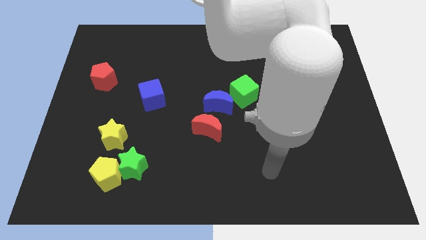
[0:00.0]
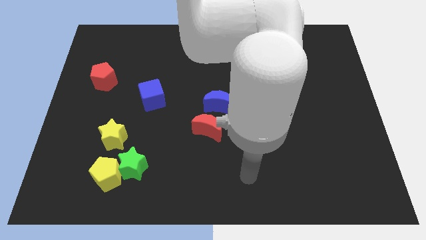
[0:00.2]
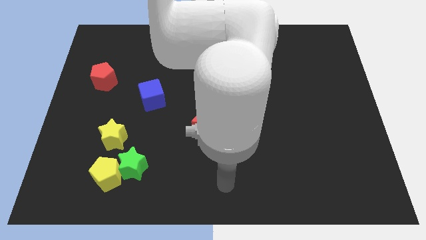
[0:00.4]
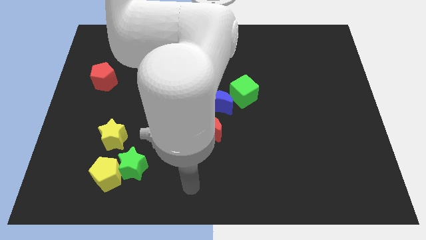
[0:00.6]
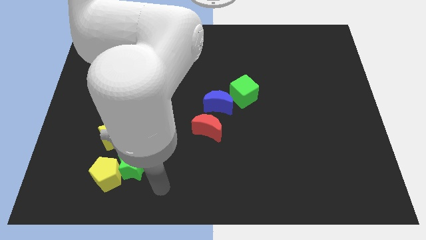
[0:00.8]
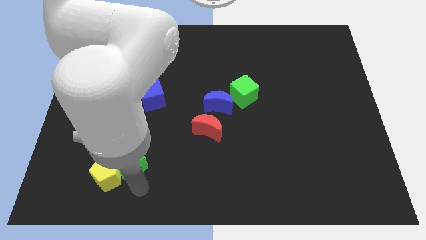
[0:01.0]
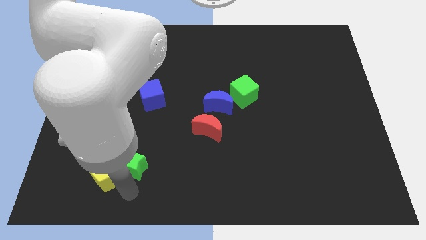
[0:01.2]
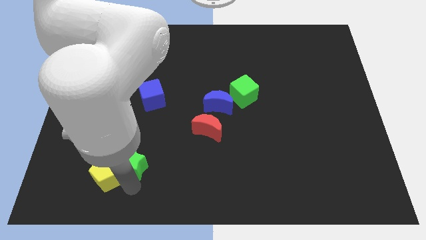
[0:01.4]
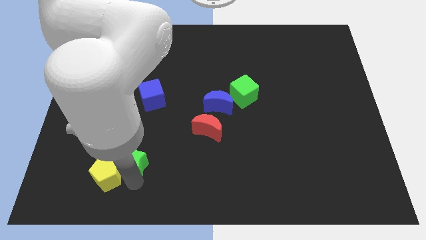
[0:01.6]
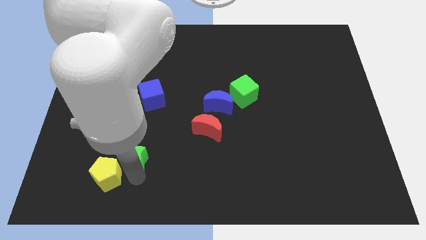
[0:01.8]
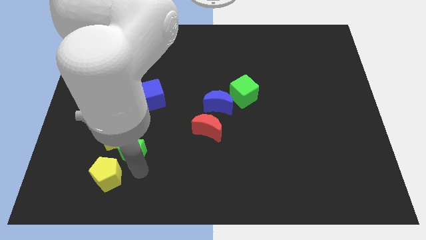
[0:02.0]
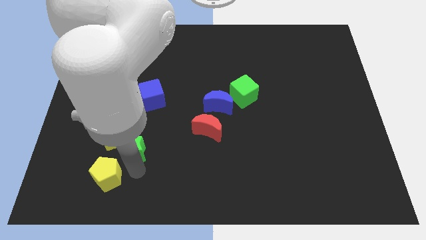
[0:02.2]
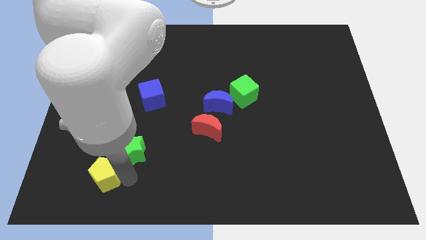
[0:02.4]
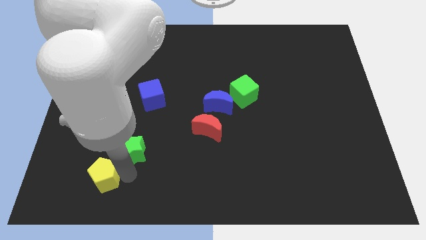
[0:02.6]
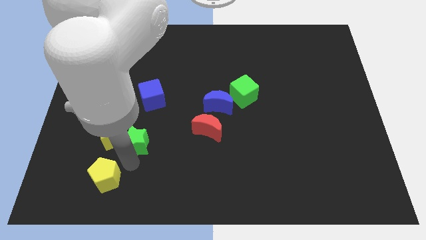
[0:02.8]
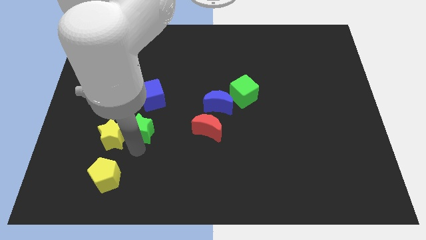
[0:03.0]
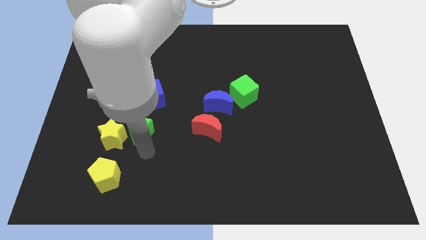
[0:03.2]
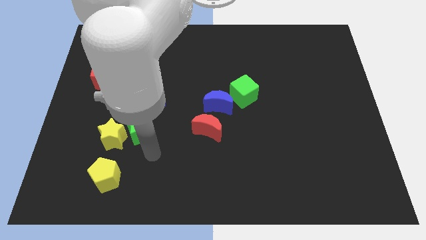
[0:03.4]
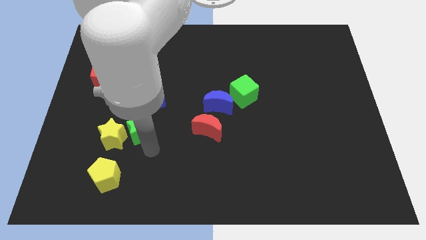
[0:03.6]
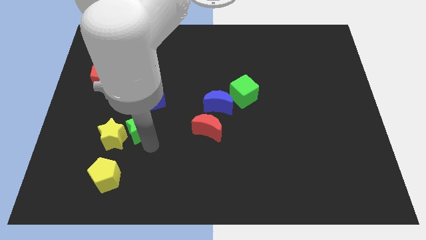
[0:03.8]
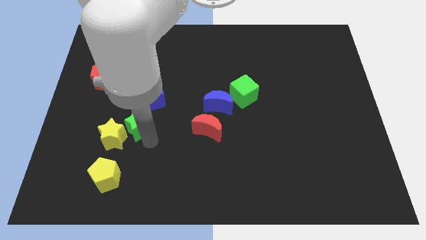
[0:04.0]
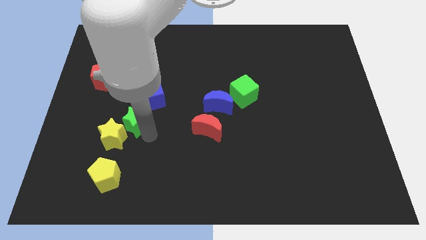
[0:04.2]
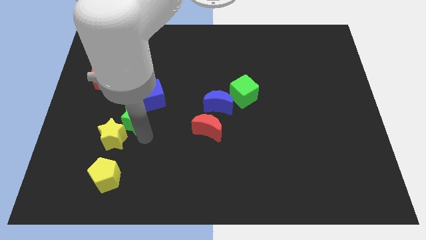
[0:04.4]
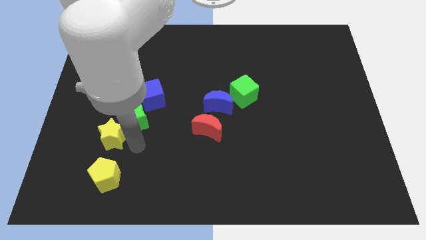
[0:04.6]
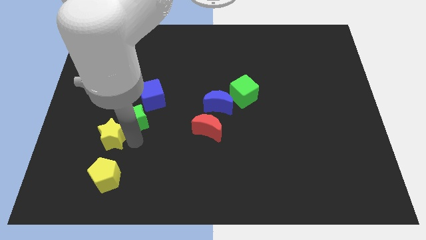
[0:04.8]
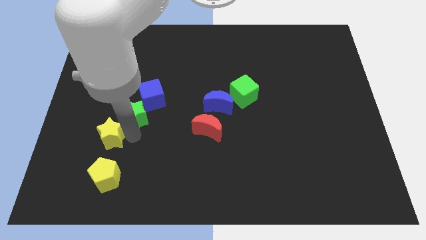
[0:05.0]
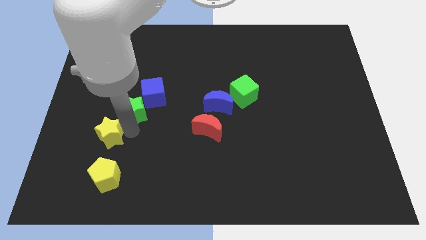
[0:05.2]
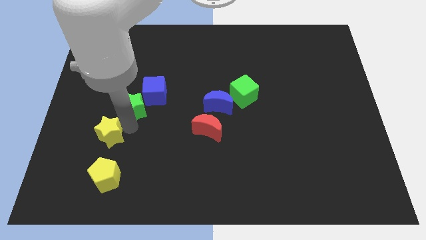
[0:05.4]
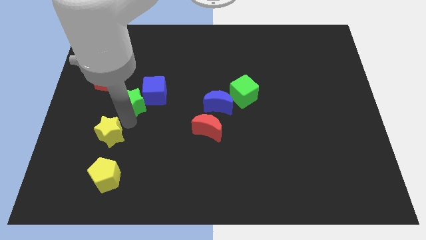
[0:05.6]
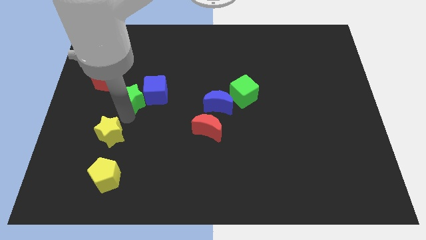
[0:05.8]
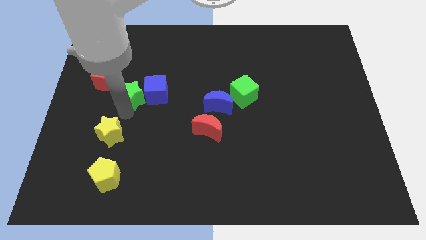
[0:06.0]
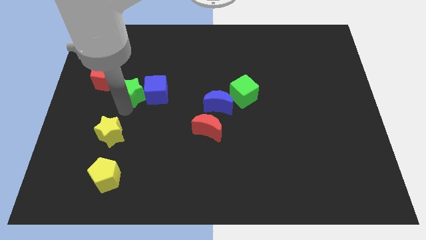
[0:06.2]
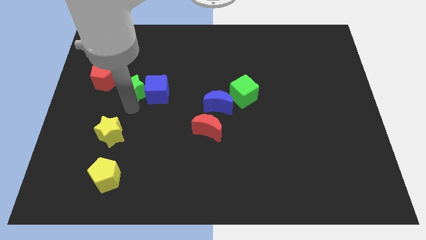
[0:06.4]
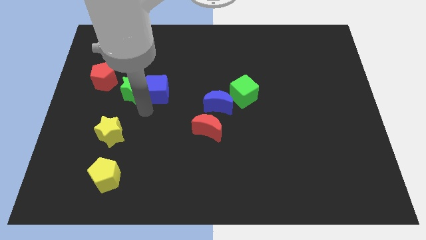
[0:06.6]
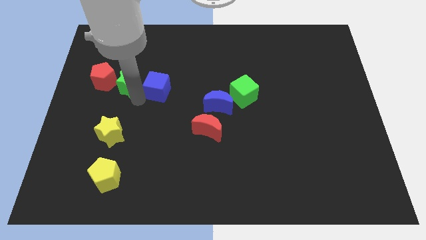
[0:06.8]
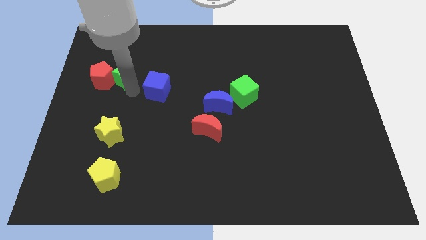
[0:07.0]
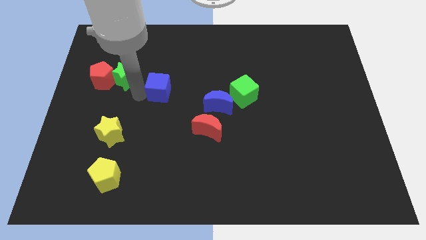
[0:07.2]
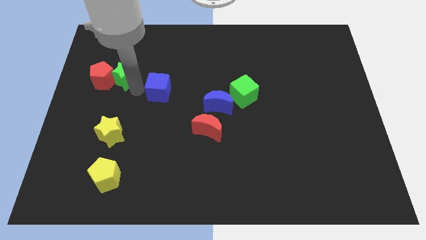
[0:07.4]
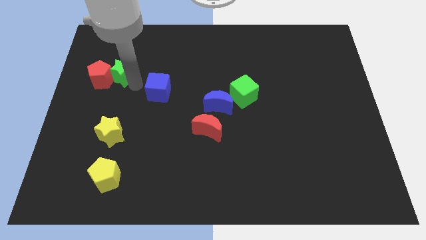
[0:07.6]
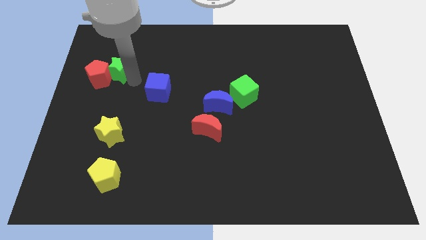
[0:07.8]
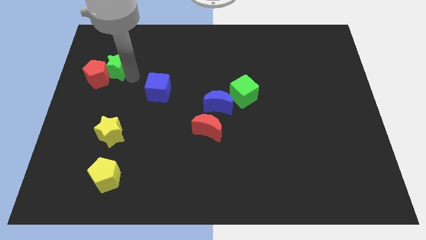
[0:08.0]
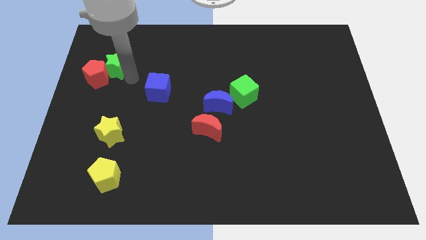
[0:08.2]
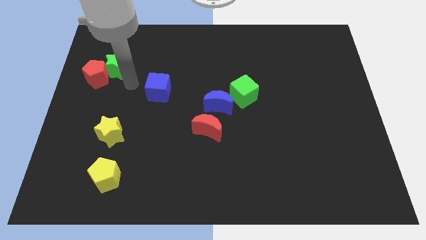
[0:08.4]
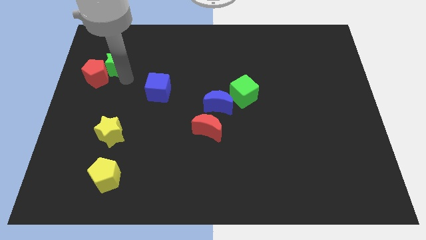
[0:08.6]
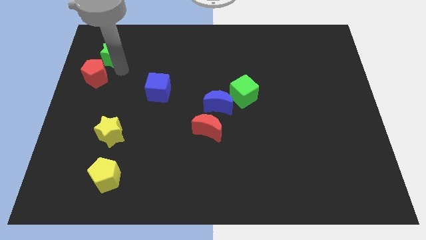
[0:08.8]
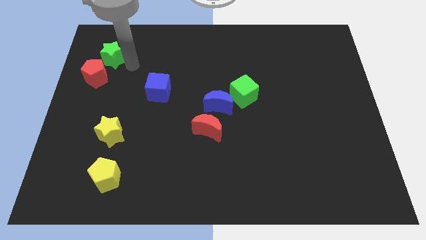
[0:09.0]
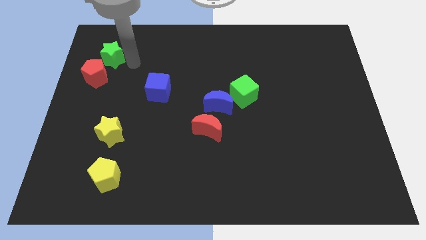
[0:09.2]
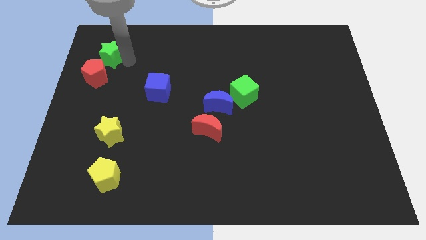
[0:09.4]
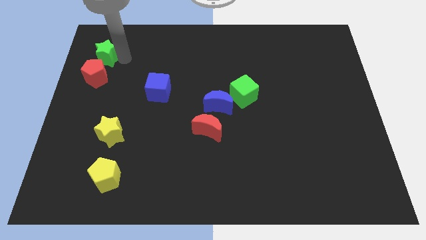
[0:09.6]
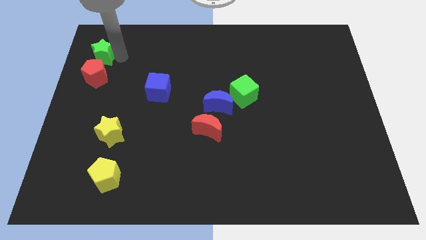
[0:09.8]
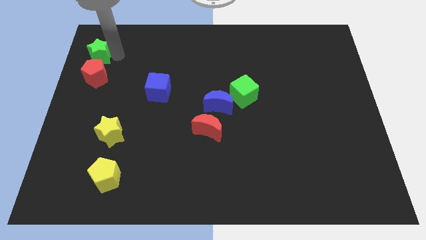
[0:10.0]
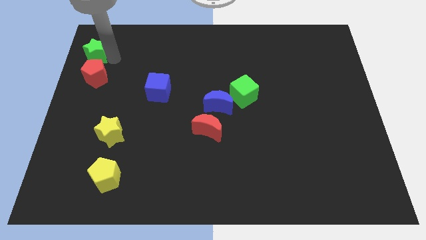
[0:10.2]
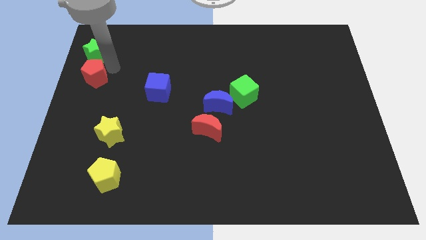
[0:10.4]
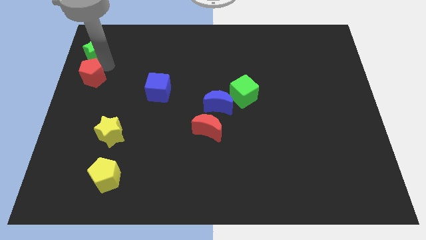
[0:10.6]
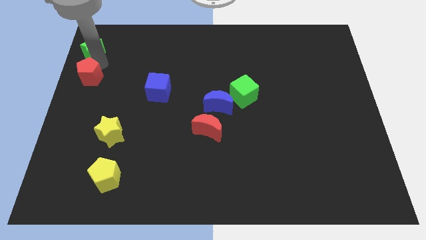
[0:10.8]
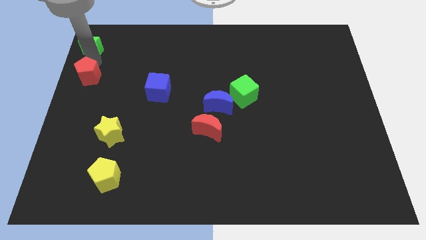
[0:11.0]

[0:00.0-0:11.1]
push the green star to the top left of the board

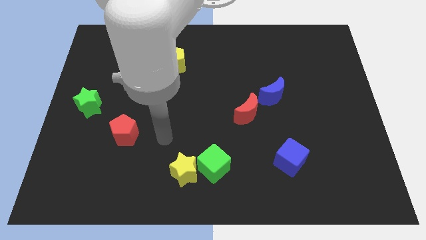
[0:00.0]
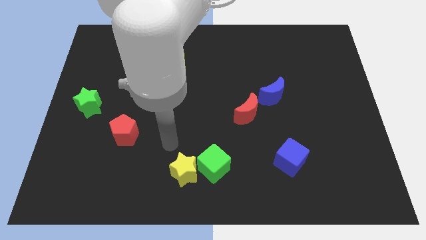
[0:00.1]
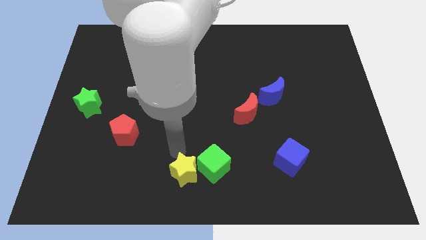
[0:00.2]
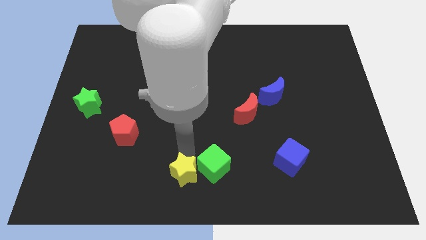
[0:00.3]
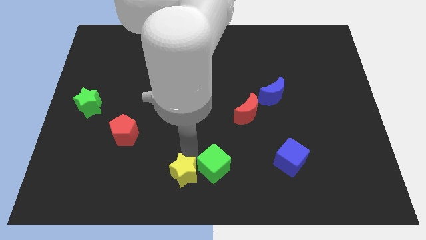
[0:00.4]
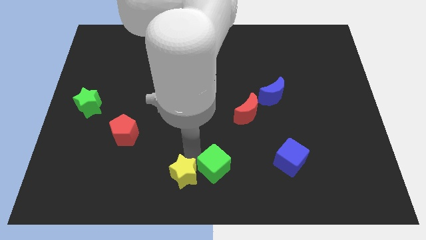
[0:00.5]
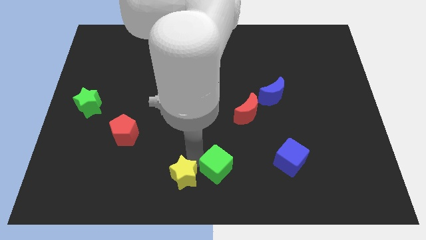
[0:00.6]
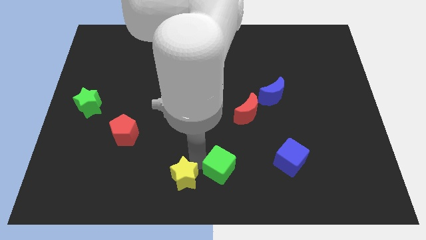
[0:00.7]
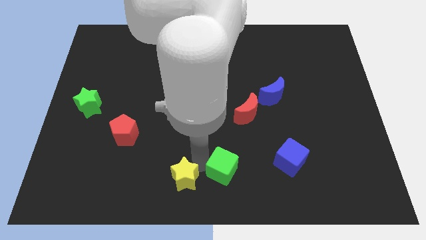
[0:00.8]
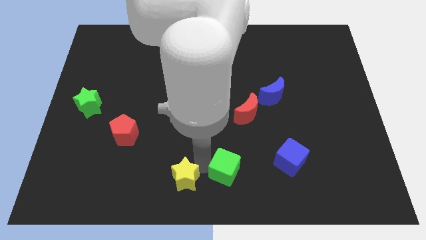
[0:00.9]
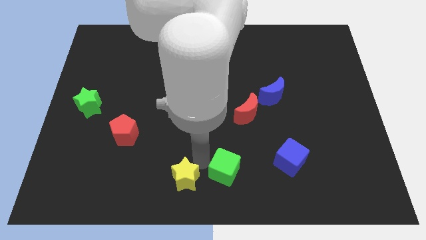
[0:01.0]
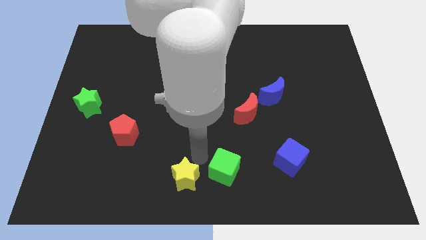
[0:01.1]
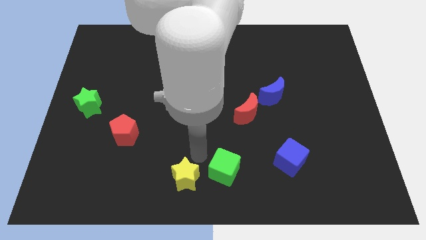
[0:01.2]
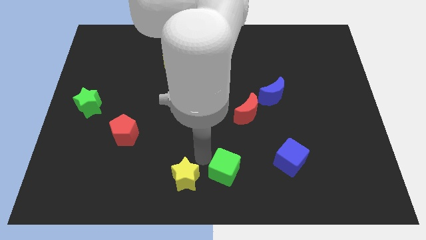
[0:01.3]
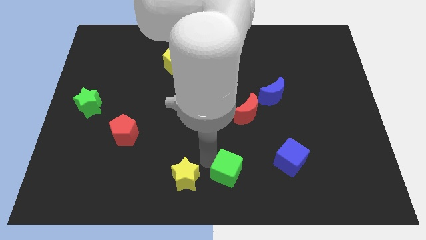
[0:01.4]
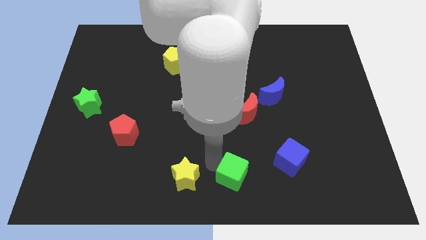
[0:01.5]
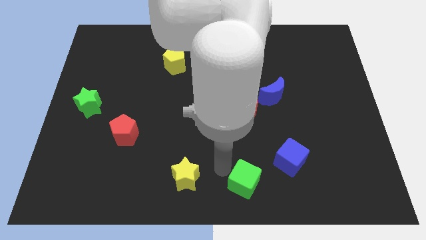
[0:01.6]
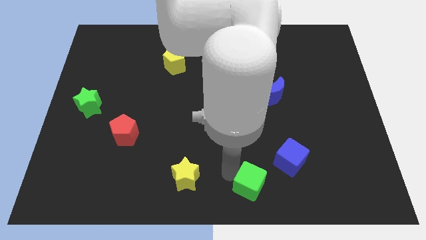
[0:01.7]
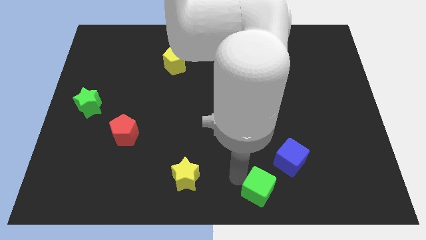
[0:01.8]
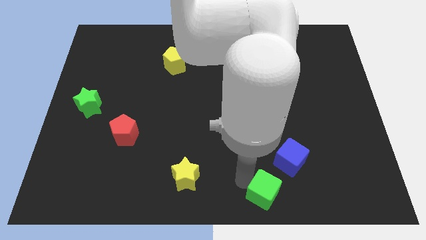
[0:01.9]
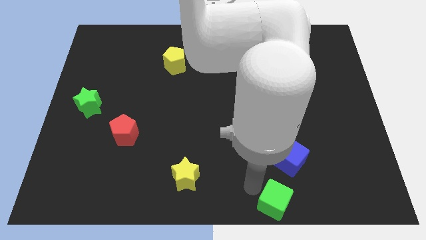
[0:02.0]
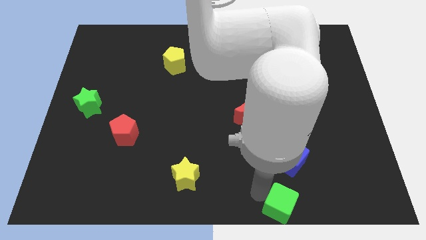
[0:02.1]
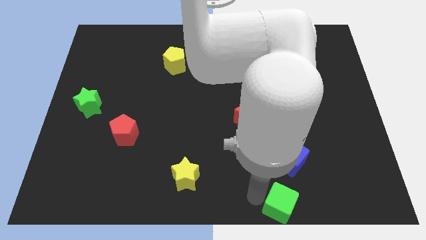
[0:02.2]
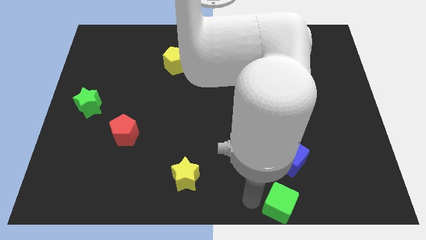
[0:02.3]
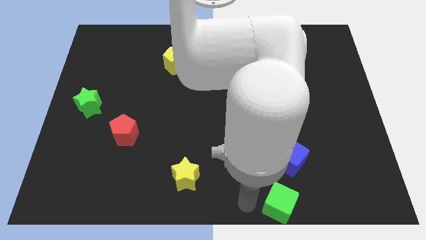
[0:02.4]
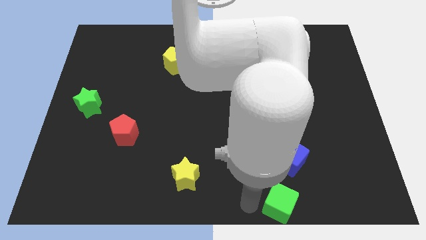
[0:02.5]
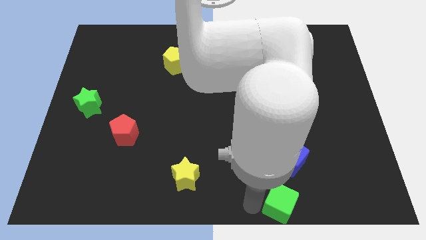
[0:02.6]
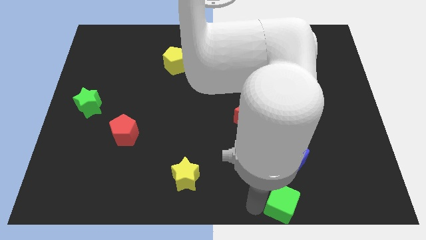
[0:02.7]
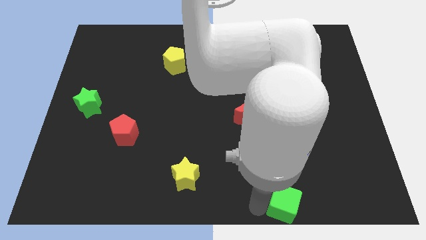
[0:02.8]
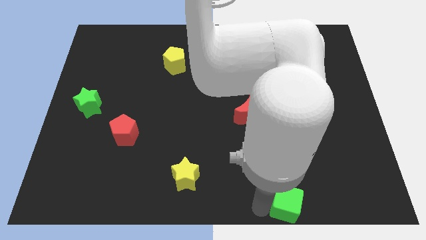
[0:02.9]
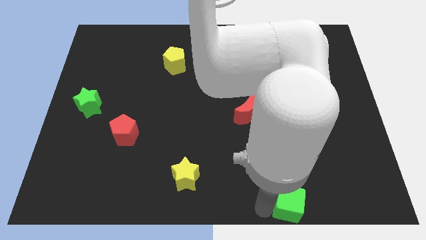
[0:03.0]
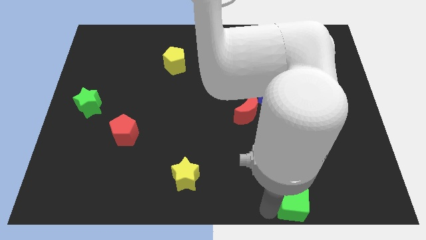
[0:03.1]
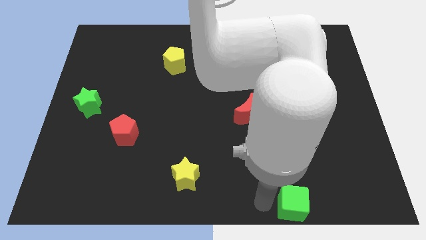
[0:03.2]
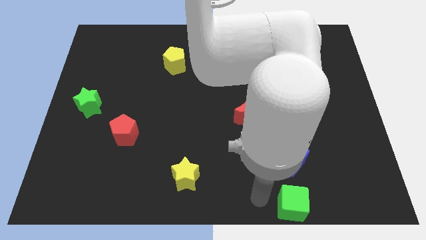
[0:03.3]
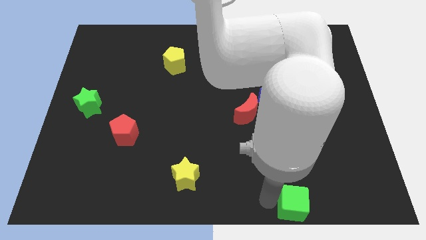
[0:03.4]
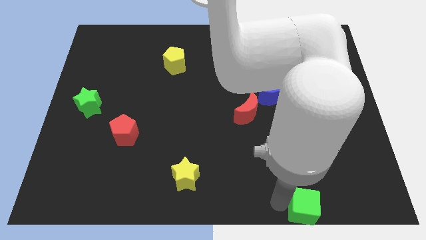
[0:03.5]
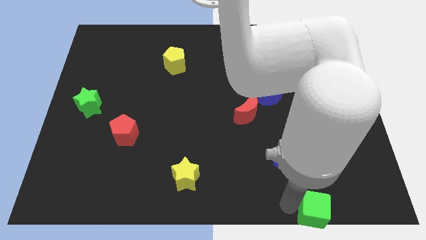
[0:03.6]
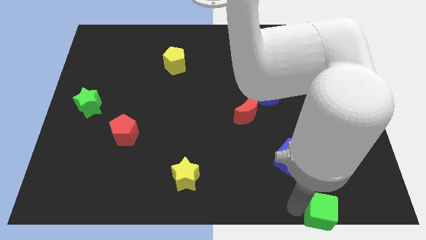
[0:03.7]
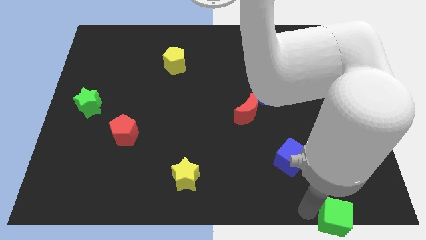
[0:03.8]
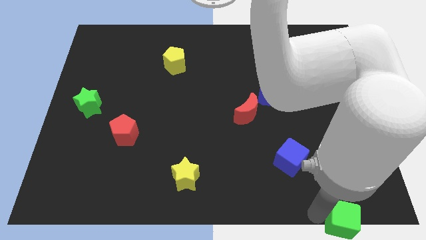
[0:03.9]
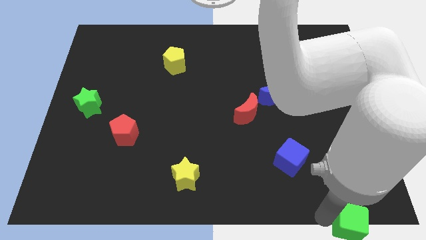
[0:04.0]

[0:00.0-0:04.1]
put the green cube to the bottom right of the board
